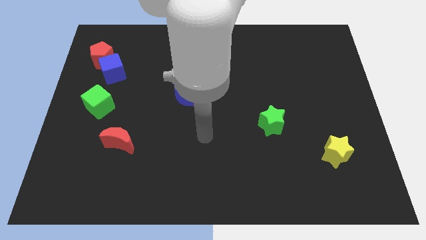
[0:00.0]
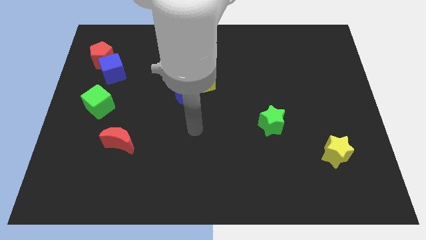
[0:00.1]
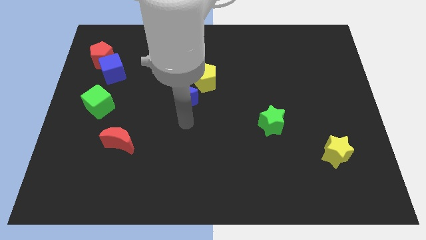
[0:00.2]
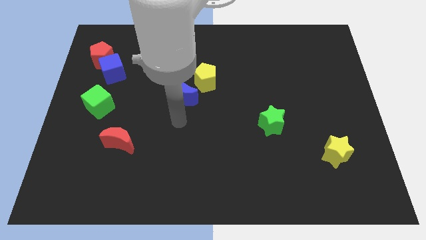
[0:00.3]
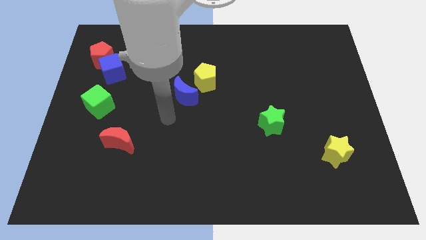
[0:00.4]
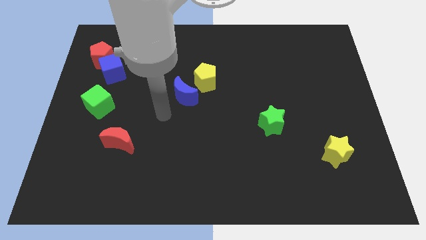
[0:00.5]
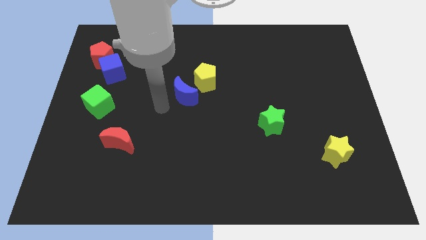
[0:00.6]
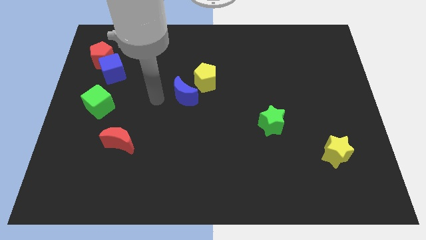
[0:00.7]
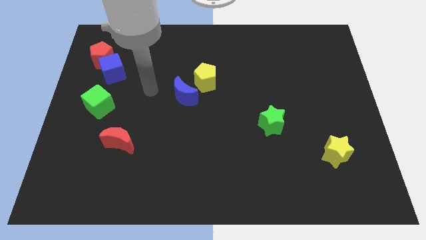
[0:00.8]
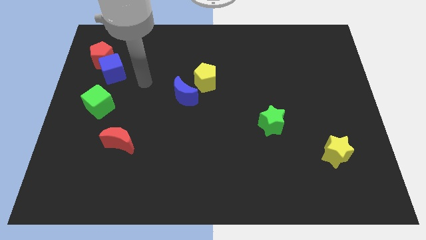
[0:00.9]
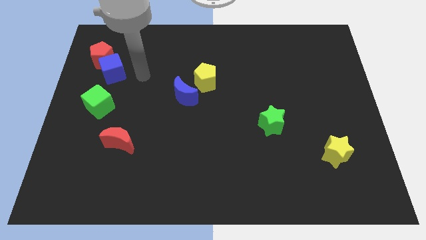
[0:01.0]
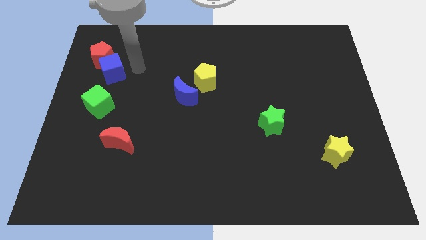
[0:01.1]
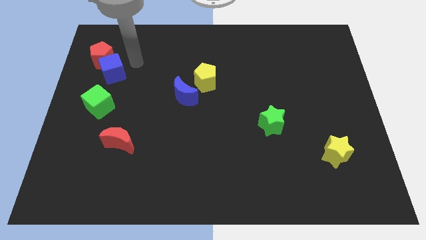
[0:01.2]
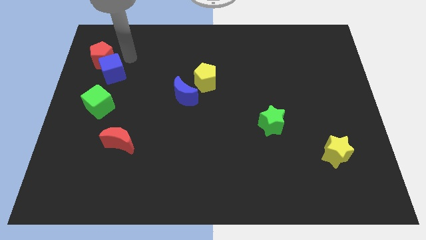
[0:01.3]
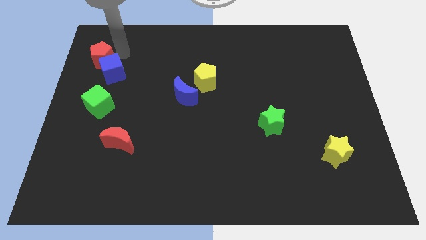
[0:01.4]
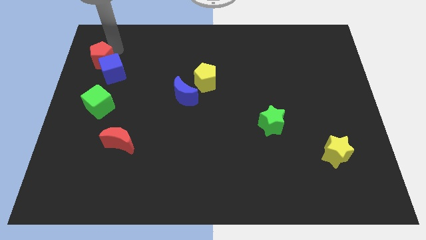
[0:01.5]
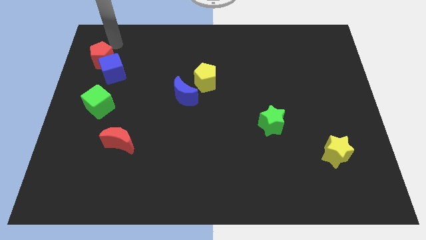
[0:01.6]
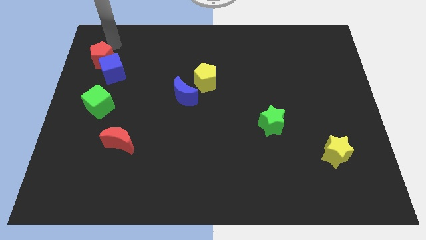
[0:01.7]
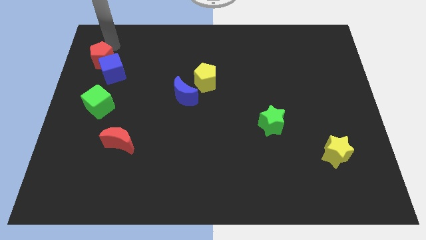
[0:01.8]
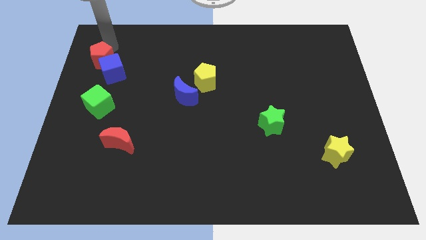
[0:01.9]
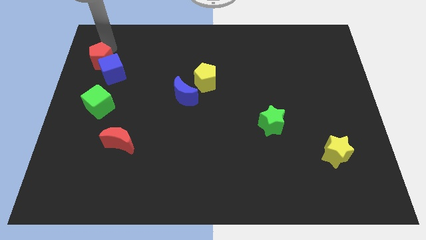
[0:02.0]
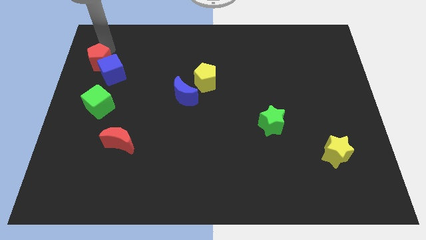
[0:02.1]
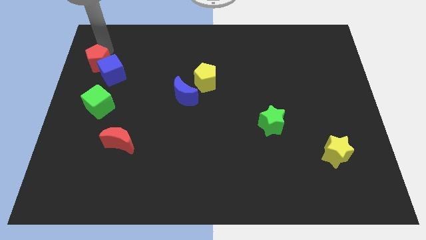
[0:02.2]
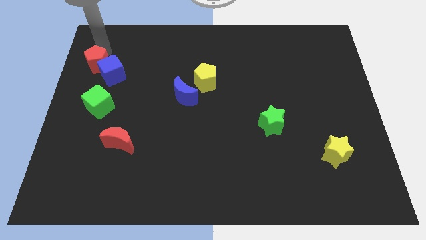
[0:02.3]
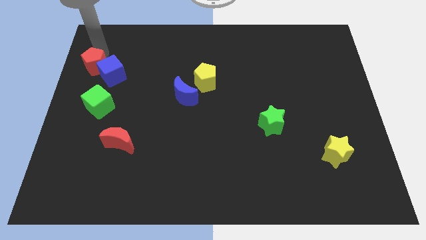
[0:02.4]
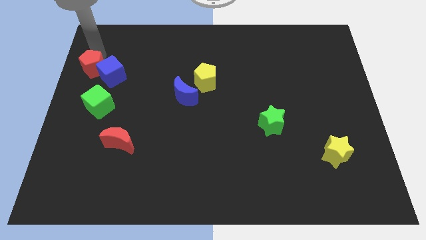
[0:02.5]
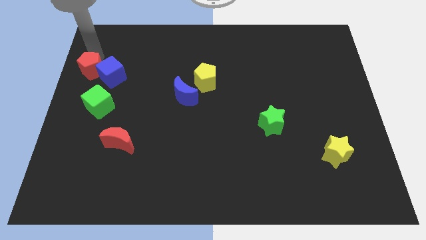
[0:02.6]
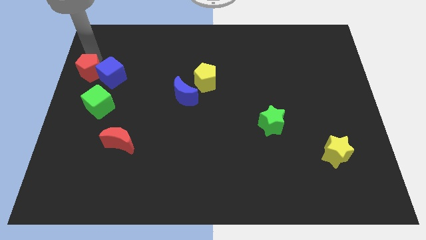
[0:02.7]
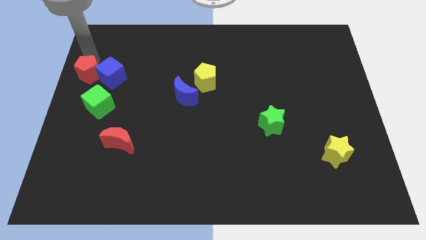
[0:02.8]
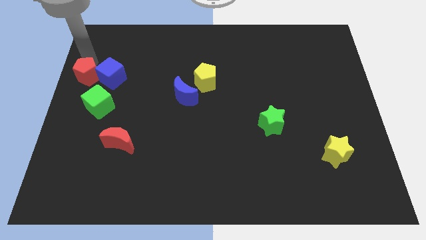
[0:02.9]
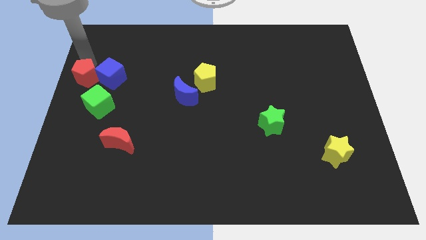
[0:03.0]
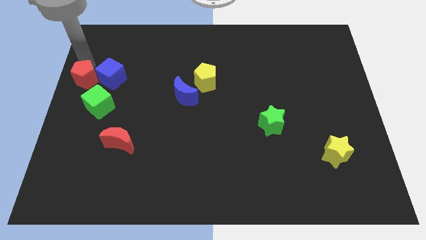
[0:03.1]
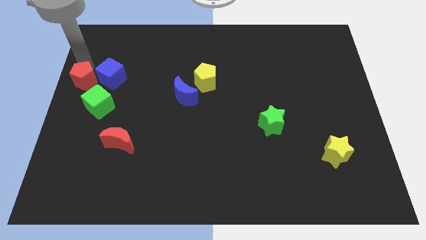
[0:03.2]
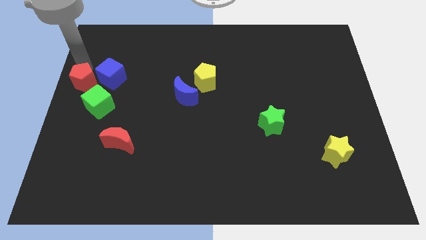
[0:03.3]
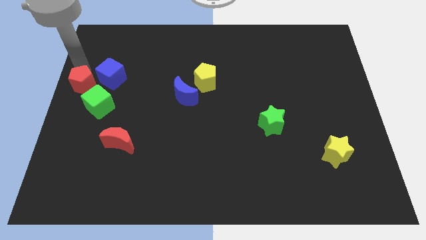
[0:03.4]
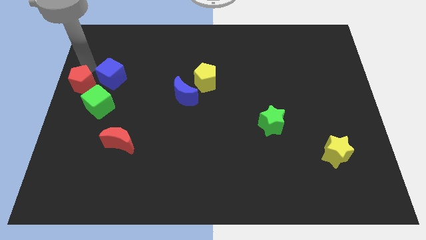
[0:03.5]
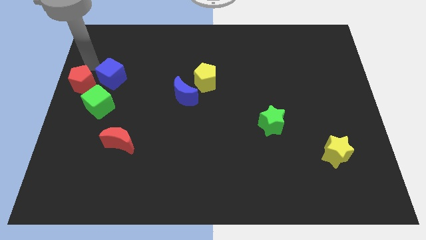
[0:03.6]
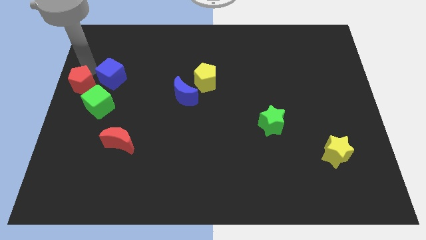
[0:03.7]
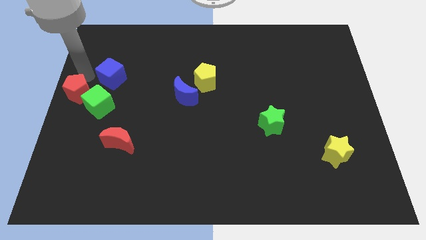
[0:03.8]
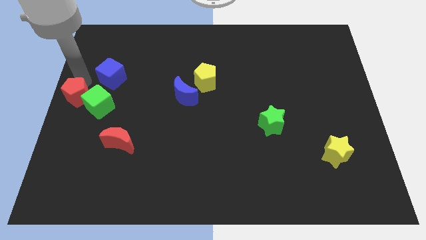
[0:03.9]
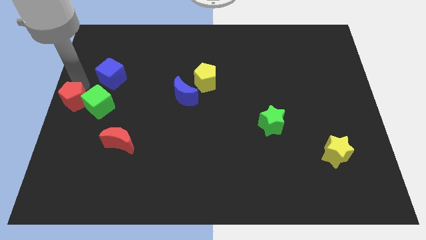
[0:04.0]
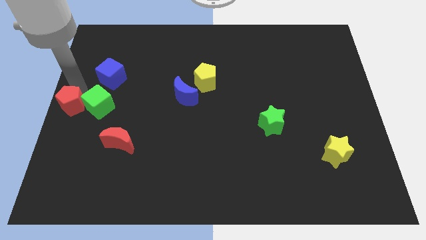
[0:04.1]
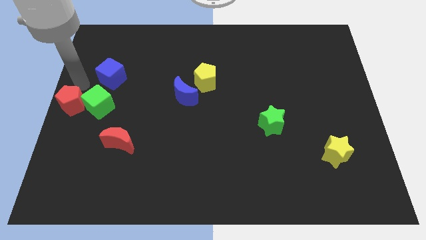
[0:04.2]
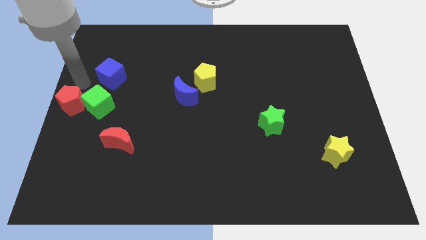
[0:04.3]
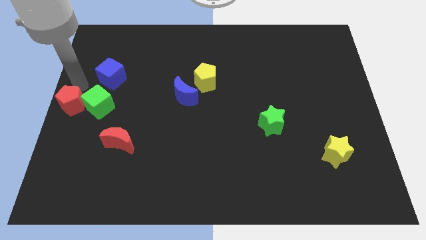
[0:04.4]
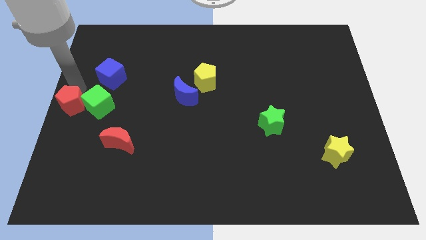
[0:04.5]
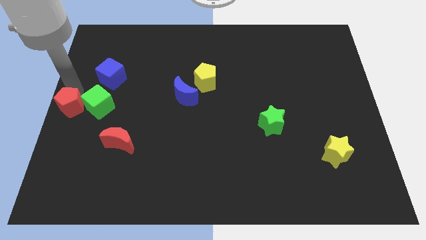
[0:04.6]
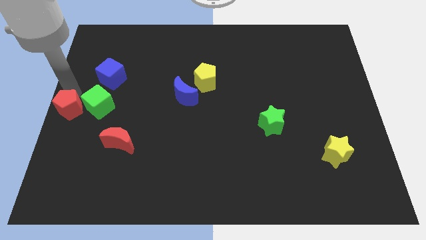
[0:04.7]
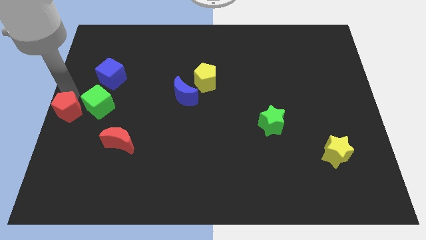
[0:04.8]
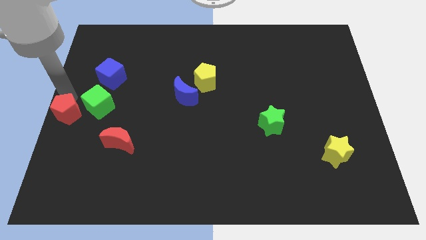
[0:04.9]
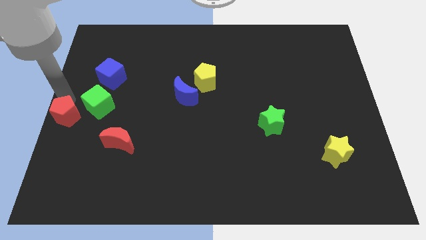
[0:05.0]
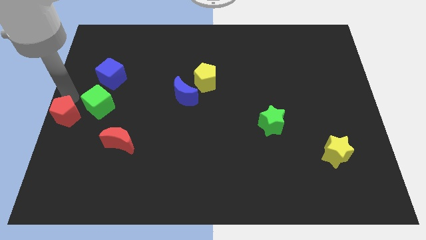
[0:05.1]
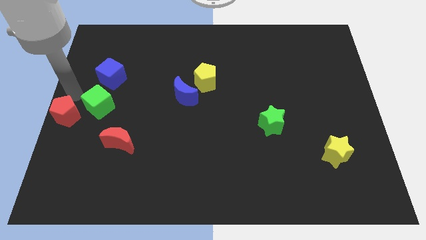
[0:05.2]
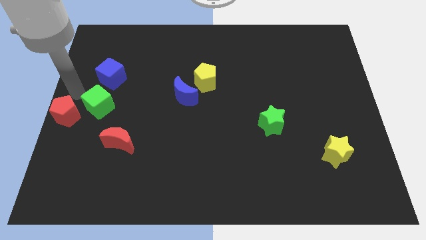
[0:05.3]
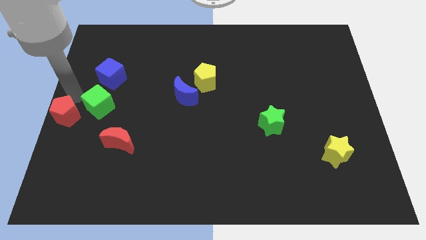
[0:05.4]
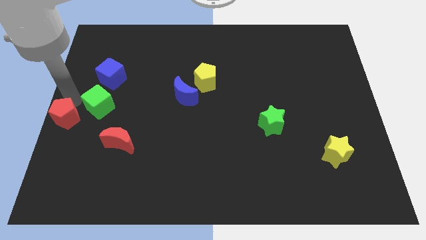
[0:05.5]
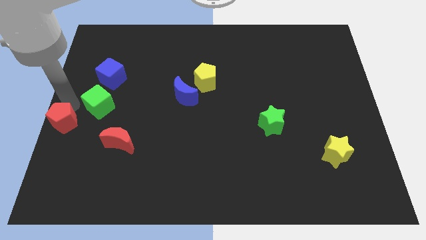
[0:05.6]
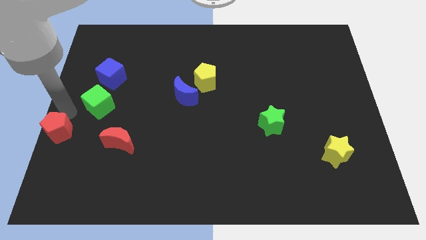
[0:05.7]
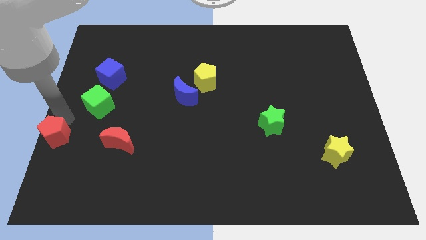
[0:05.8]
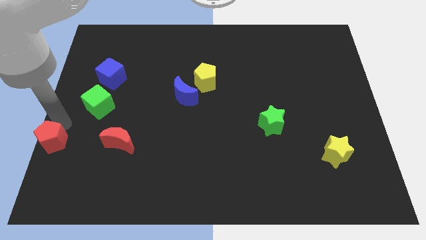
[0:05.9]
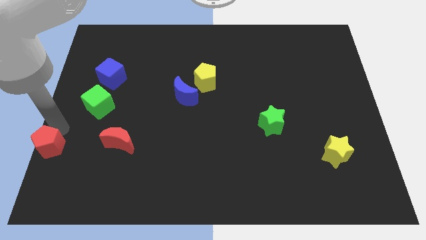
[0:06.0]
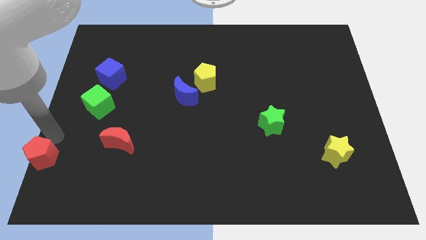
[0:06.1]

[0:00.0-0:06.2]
push the red pentagon to the bottom left corner
